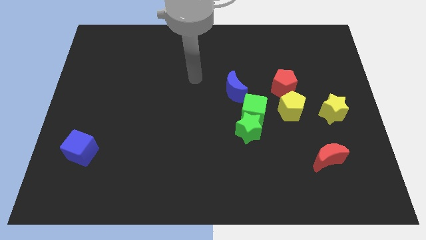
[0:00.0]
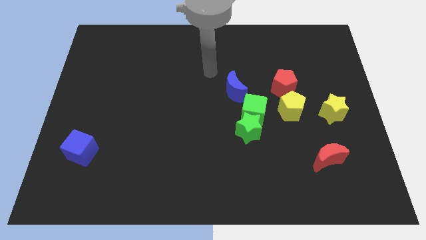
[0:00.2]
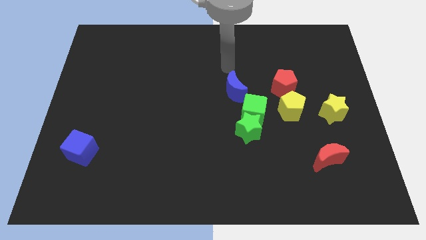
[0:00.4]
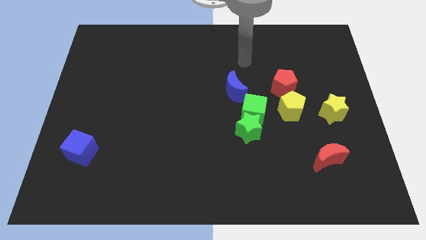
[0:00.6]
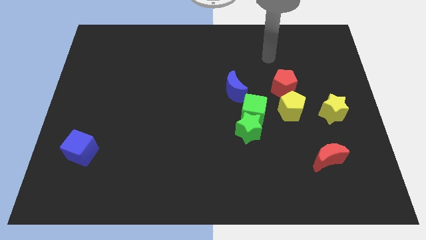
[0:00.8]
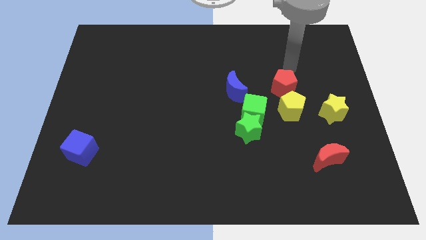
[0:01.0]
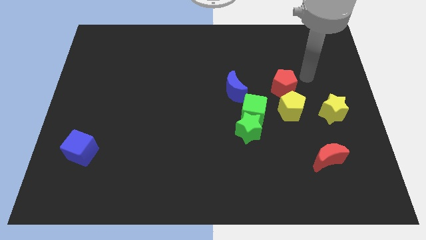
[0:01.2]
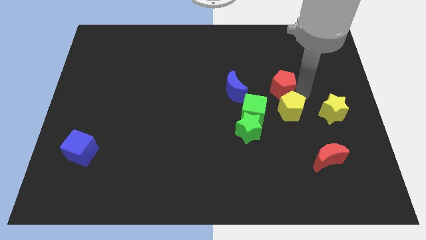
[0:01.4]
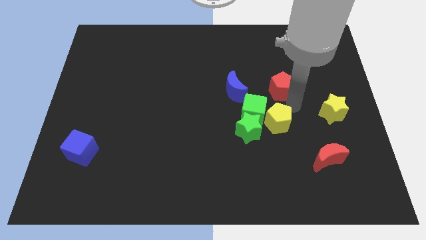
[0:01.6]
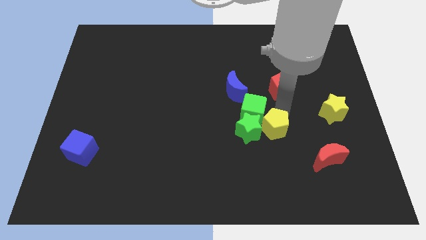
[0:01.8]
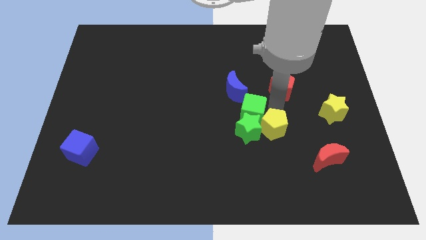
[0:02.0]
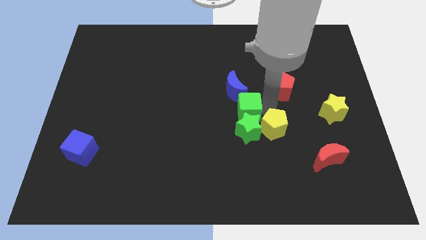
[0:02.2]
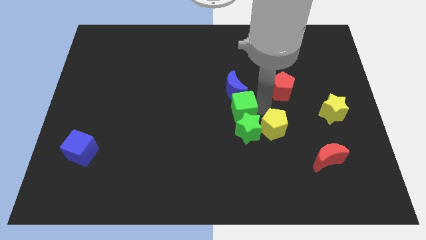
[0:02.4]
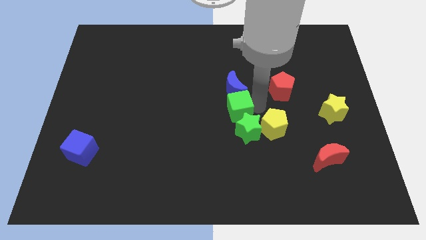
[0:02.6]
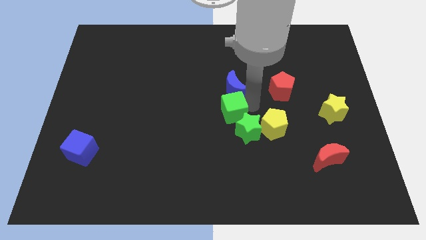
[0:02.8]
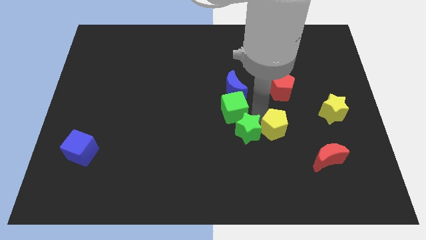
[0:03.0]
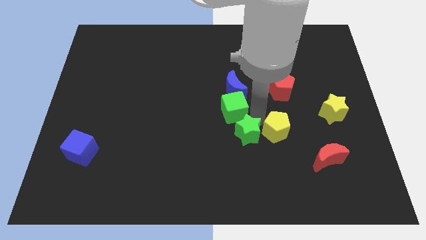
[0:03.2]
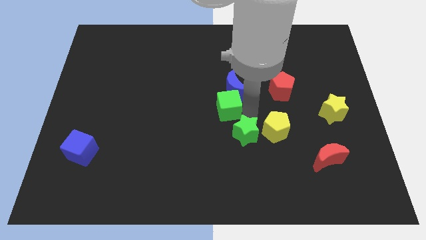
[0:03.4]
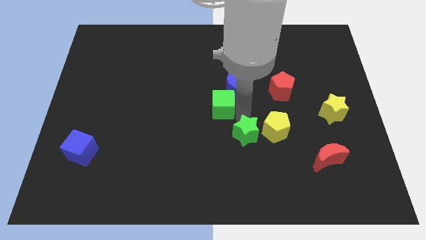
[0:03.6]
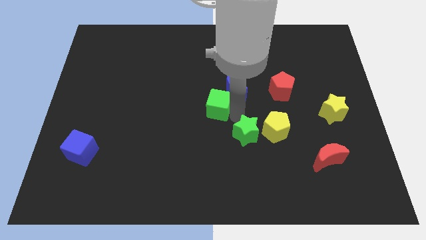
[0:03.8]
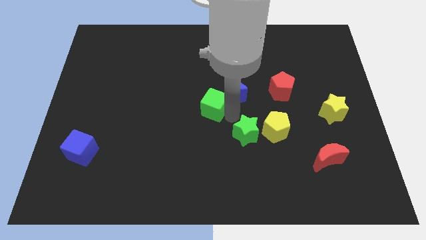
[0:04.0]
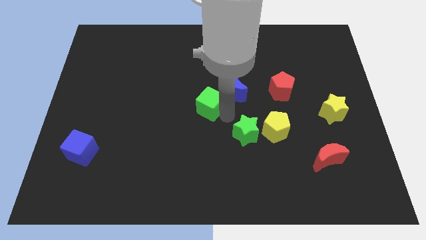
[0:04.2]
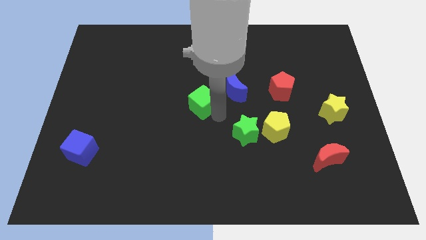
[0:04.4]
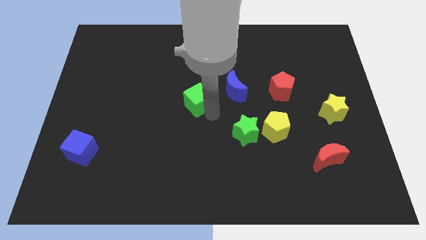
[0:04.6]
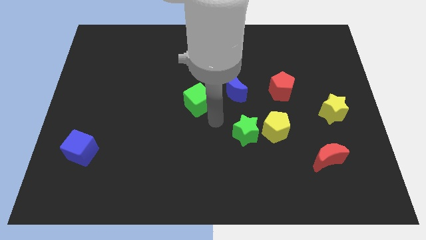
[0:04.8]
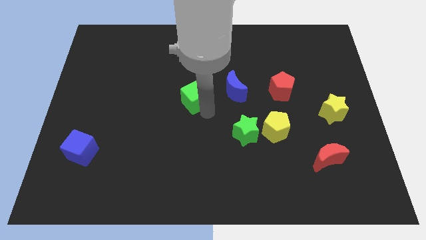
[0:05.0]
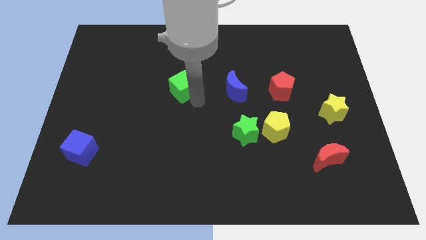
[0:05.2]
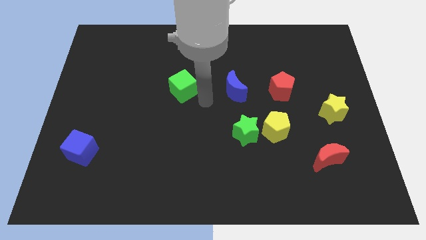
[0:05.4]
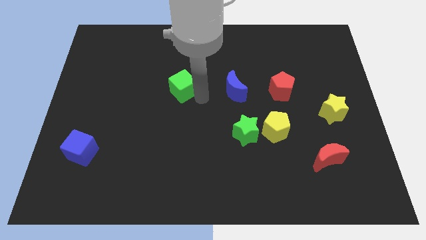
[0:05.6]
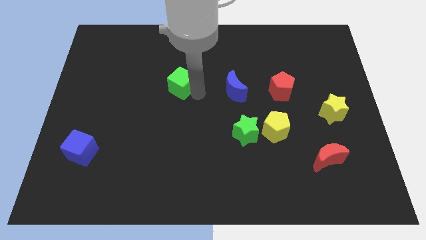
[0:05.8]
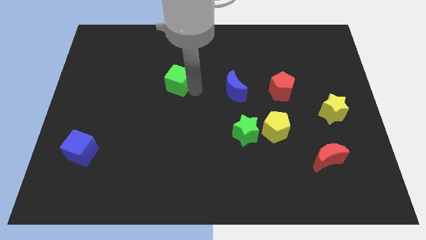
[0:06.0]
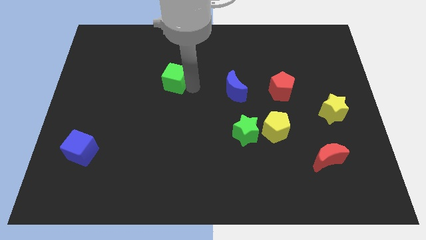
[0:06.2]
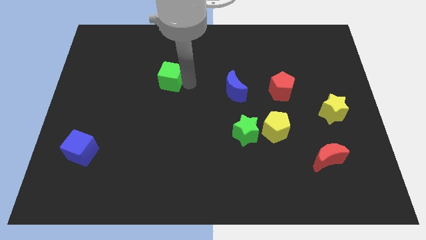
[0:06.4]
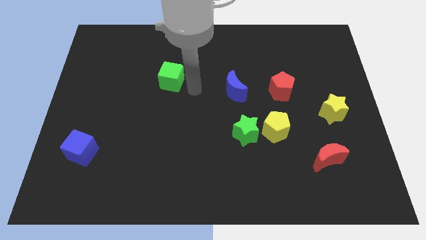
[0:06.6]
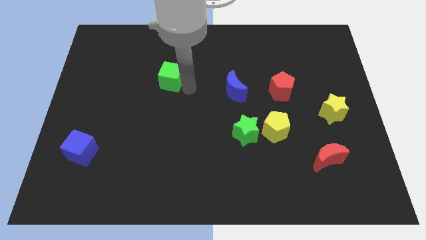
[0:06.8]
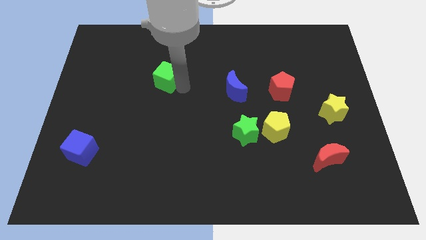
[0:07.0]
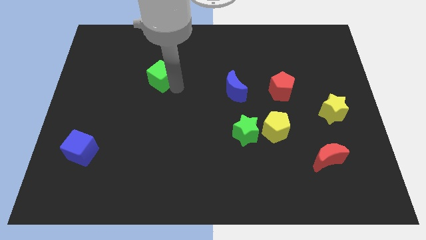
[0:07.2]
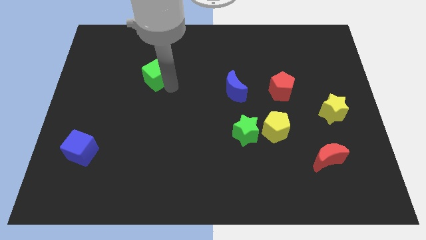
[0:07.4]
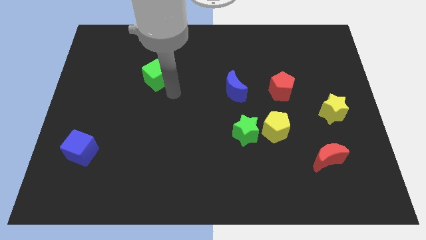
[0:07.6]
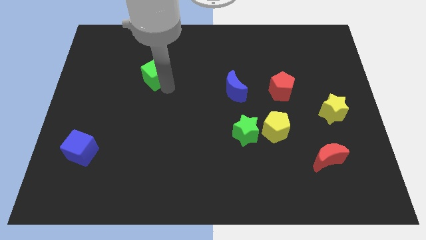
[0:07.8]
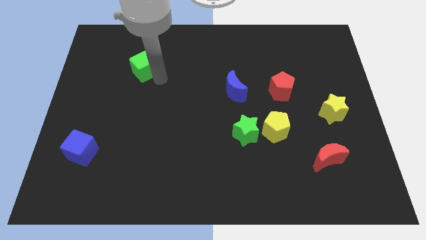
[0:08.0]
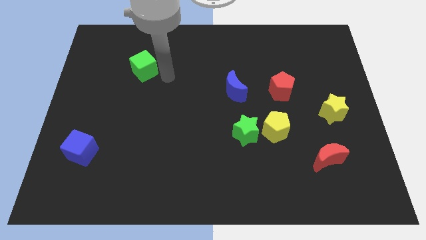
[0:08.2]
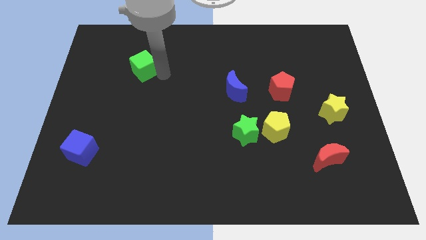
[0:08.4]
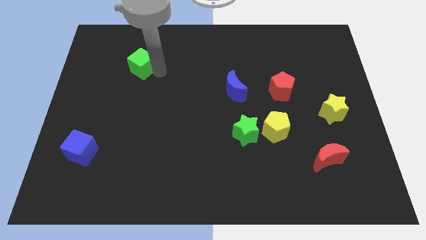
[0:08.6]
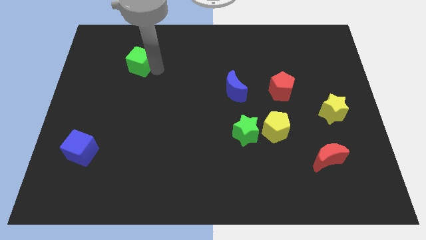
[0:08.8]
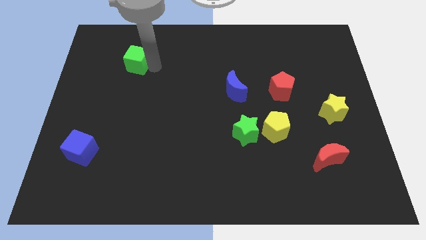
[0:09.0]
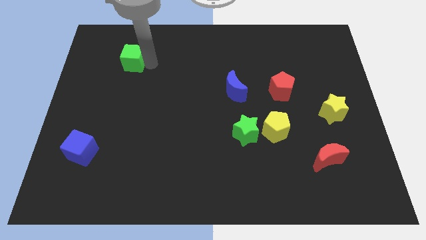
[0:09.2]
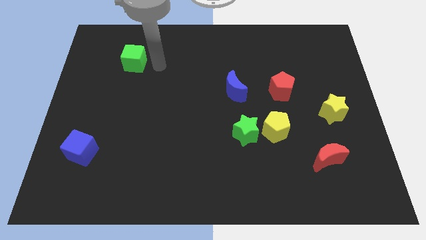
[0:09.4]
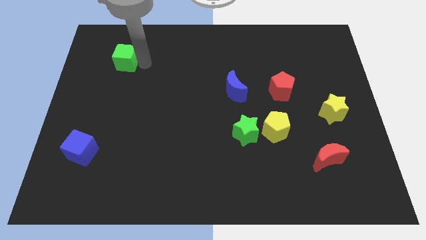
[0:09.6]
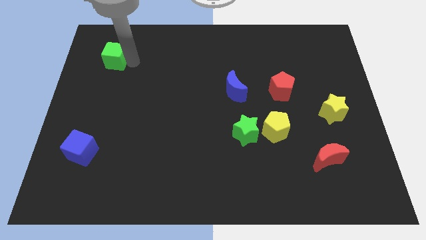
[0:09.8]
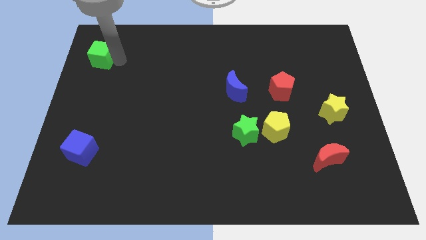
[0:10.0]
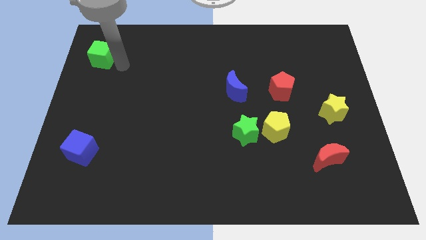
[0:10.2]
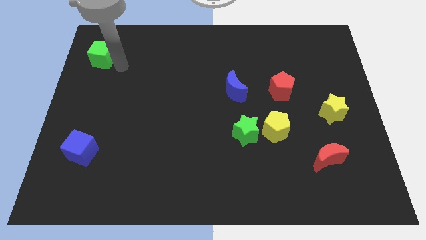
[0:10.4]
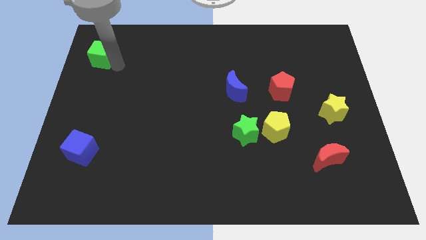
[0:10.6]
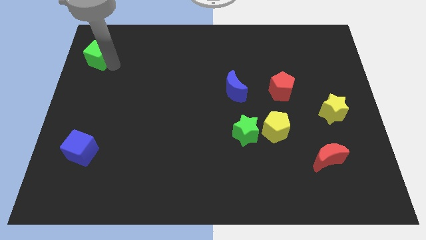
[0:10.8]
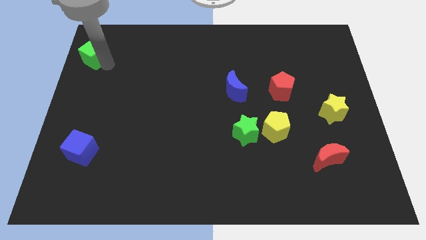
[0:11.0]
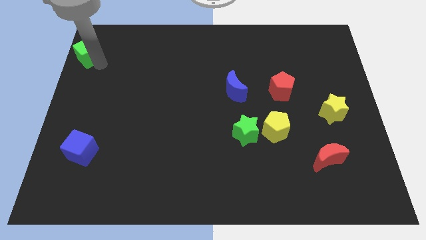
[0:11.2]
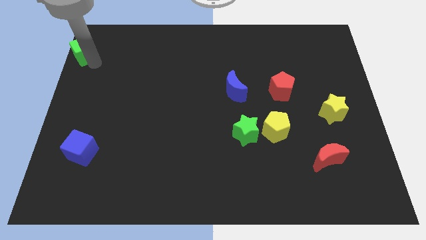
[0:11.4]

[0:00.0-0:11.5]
move the green cube to the top left corner

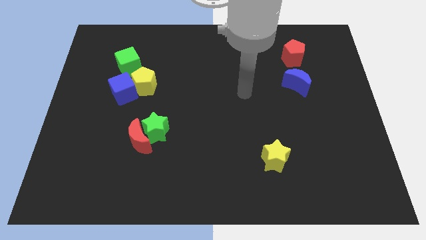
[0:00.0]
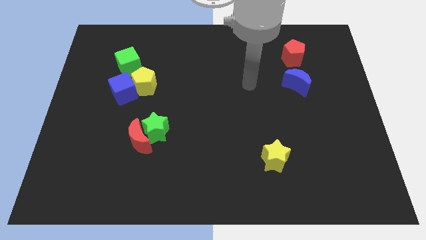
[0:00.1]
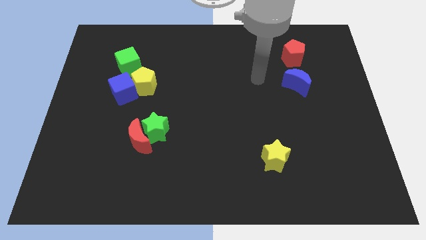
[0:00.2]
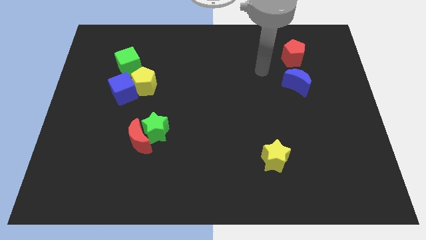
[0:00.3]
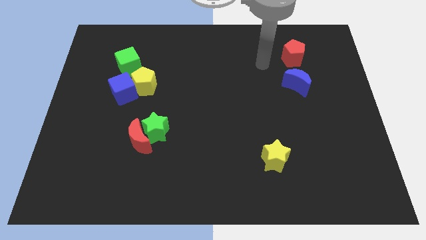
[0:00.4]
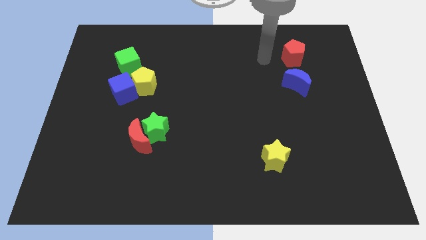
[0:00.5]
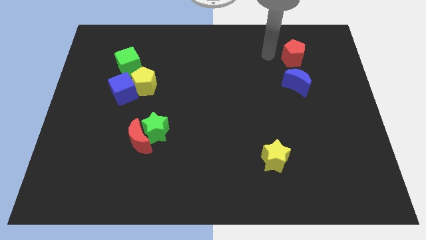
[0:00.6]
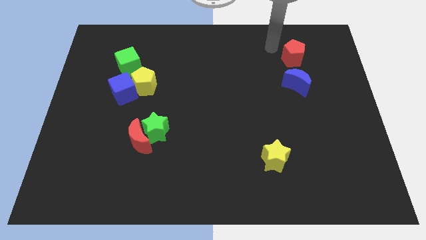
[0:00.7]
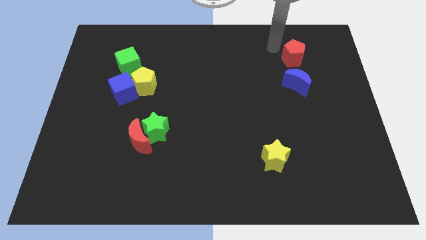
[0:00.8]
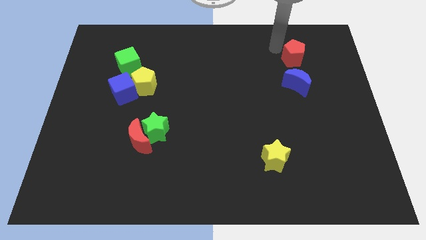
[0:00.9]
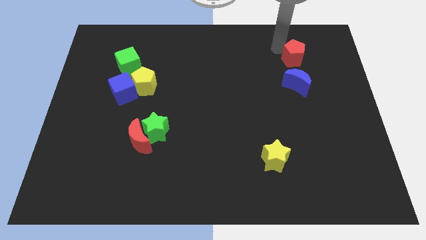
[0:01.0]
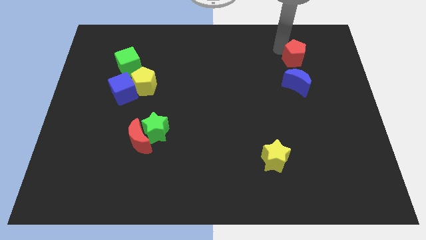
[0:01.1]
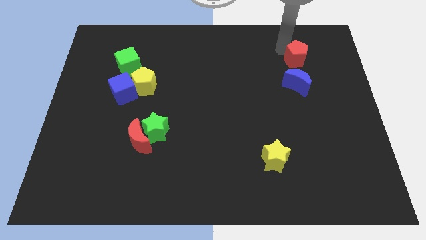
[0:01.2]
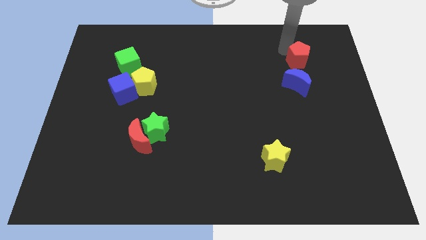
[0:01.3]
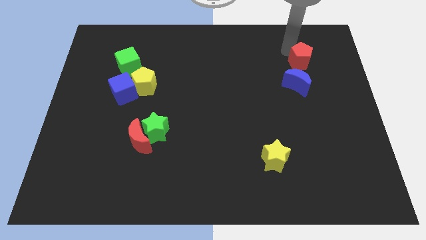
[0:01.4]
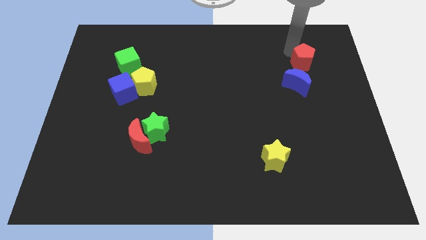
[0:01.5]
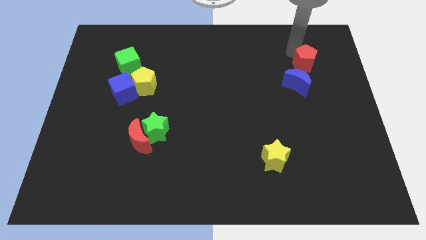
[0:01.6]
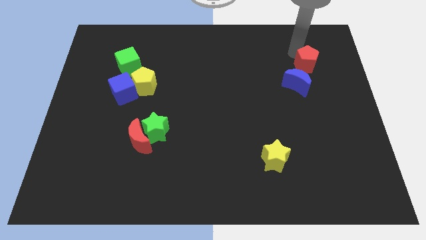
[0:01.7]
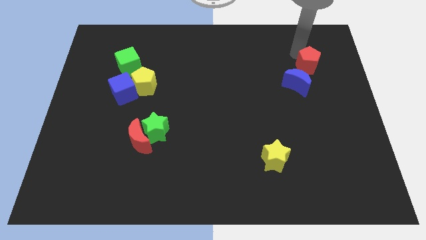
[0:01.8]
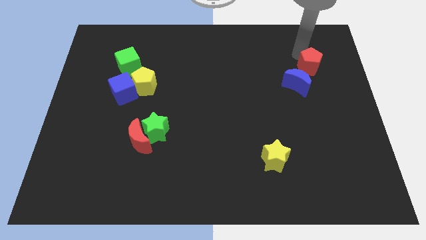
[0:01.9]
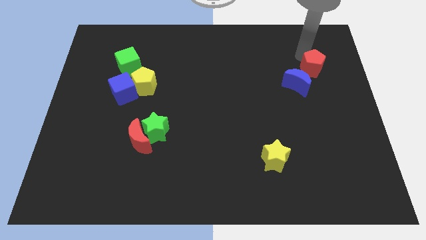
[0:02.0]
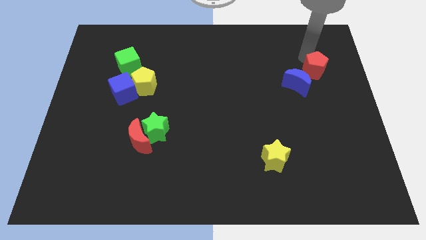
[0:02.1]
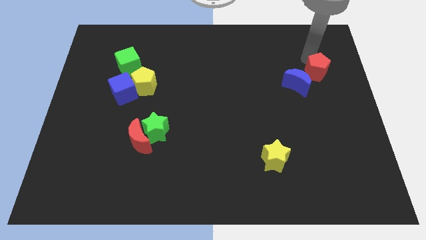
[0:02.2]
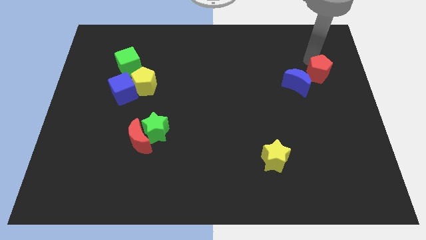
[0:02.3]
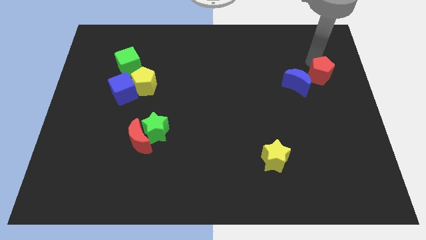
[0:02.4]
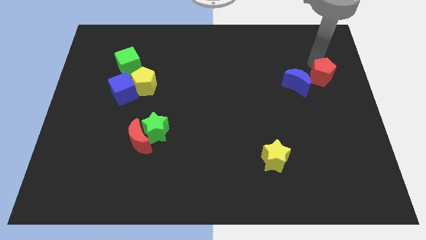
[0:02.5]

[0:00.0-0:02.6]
push the red pentagon to the center right
